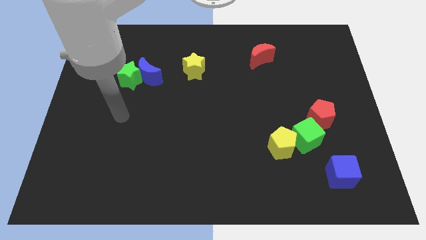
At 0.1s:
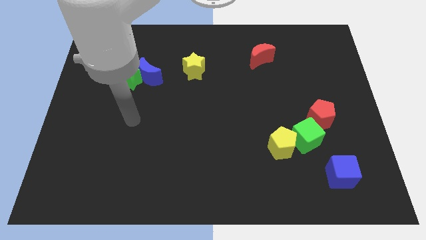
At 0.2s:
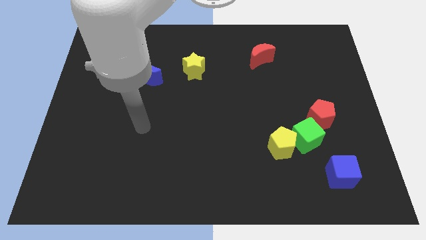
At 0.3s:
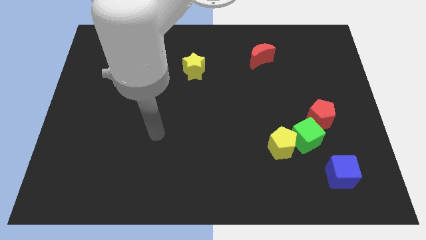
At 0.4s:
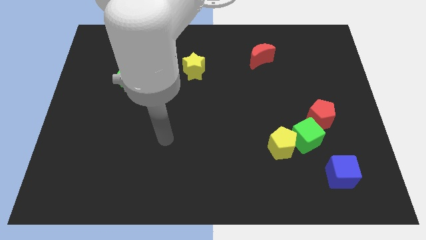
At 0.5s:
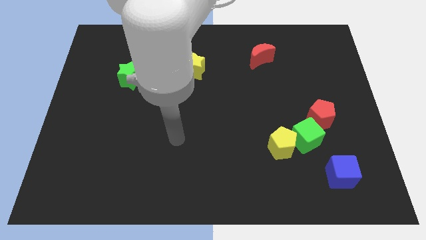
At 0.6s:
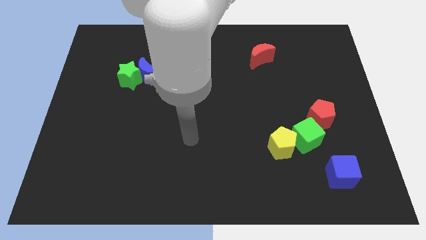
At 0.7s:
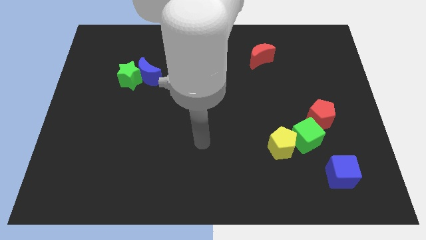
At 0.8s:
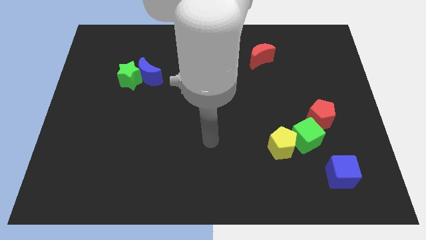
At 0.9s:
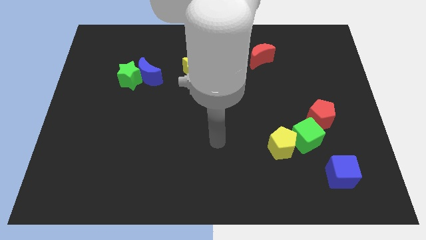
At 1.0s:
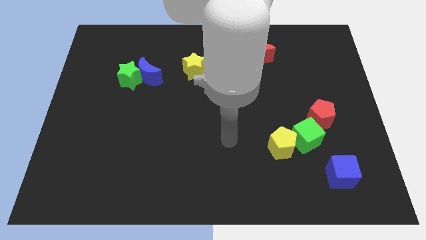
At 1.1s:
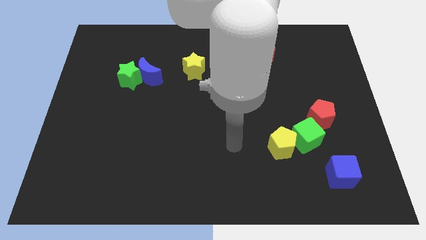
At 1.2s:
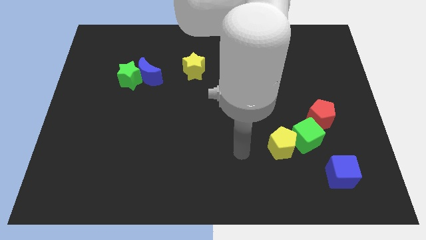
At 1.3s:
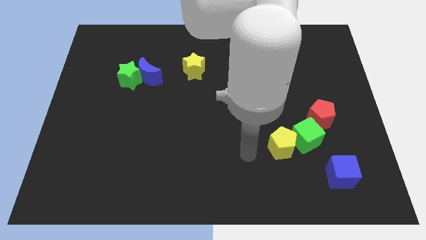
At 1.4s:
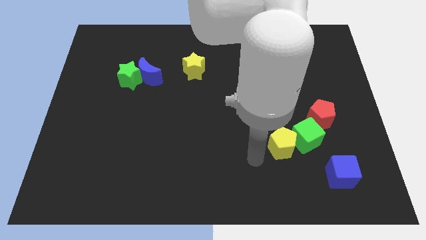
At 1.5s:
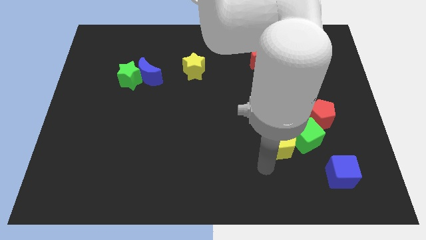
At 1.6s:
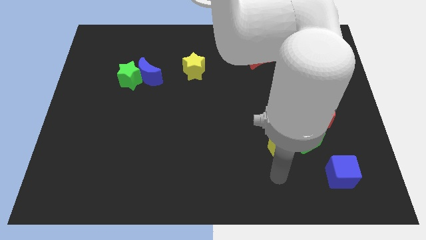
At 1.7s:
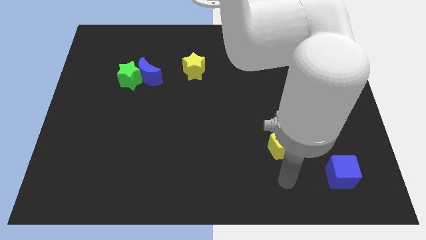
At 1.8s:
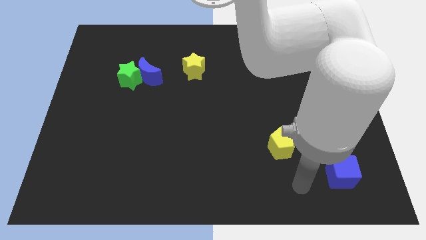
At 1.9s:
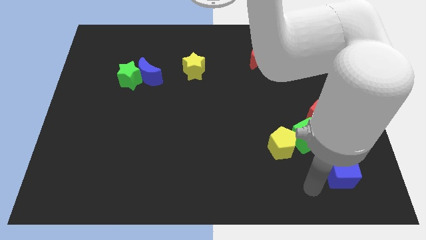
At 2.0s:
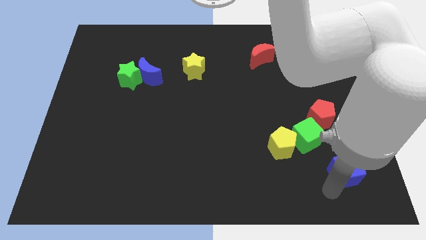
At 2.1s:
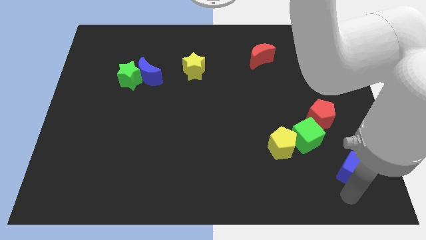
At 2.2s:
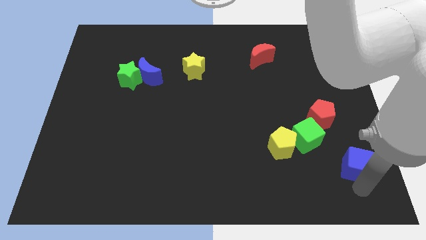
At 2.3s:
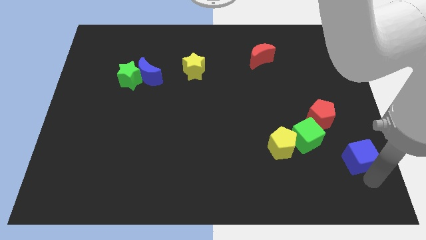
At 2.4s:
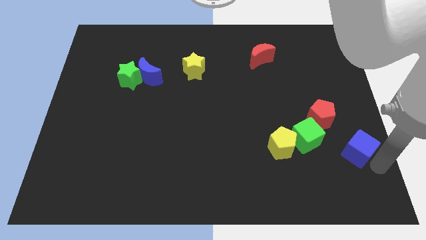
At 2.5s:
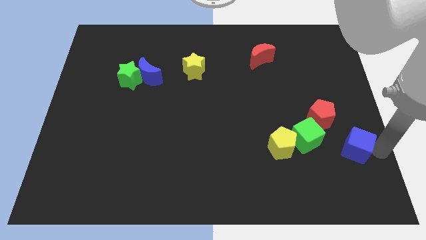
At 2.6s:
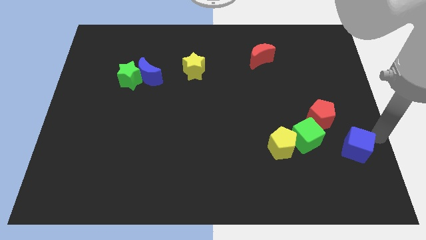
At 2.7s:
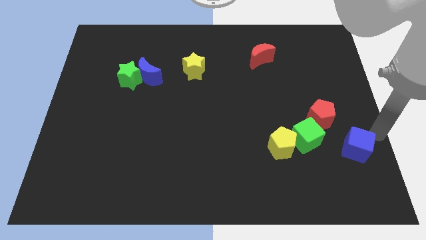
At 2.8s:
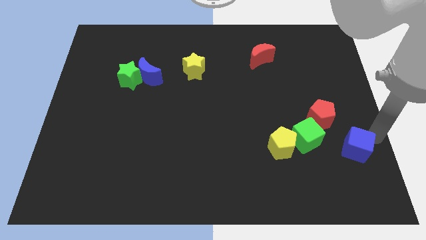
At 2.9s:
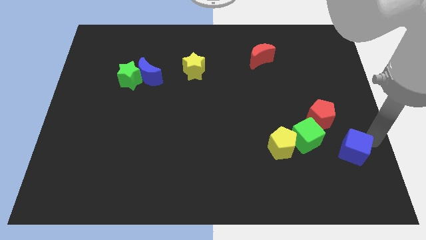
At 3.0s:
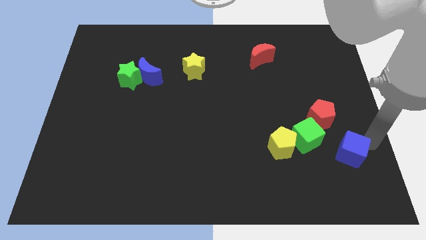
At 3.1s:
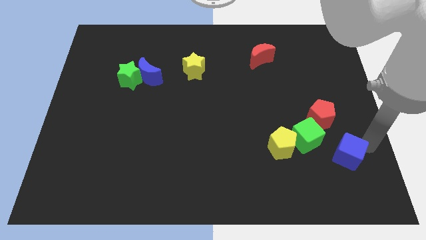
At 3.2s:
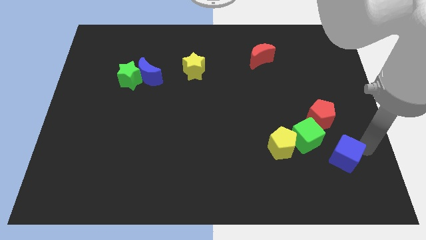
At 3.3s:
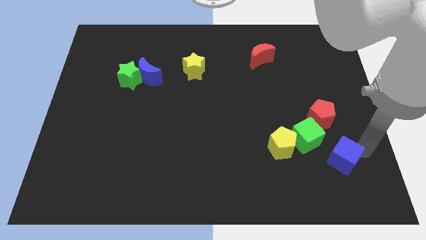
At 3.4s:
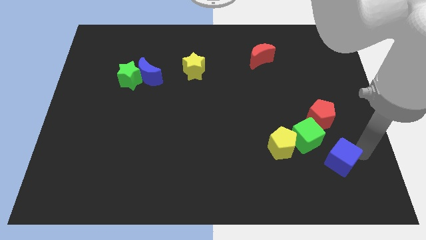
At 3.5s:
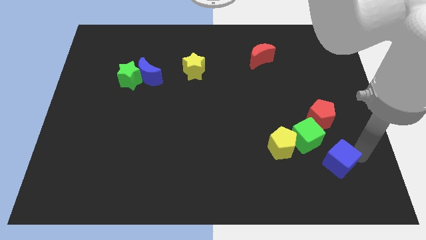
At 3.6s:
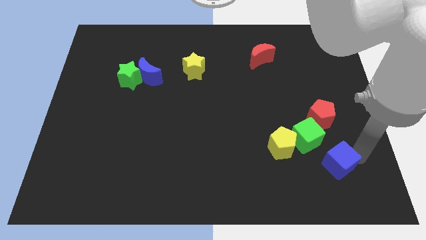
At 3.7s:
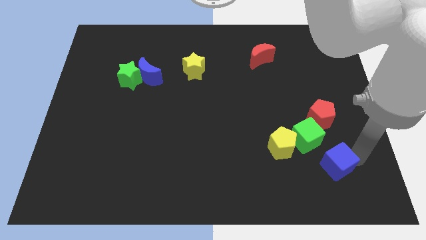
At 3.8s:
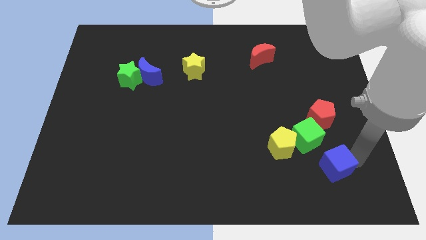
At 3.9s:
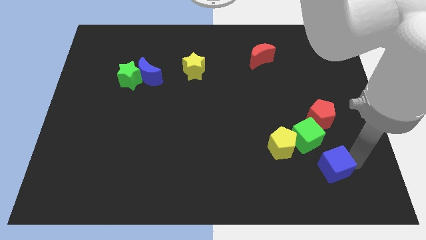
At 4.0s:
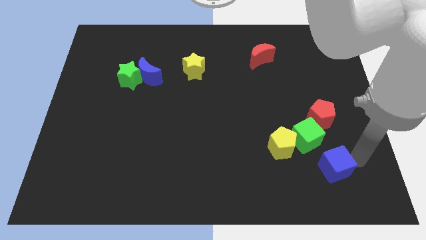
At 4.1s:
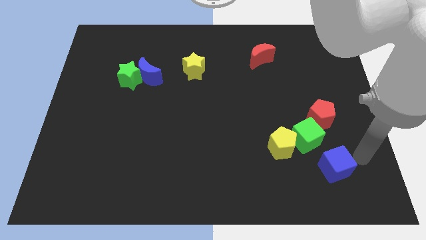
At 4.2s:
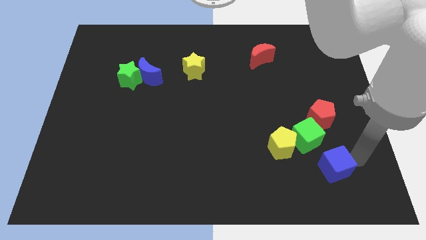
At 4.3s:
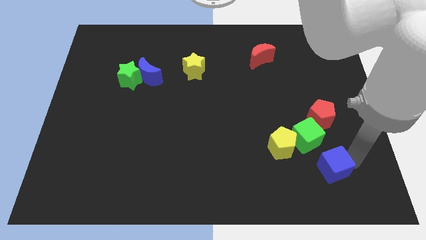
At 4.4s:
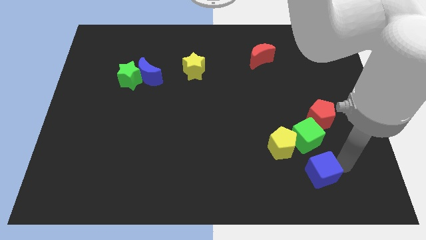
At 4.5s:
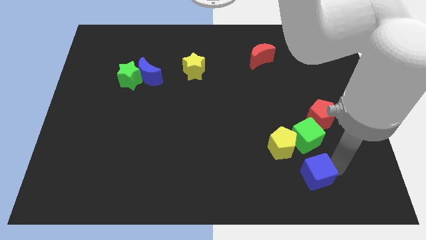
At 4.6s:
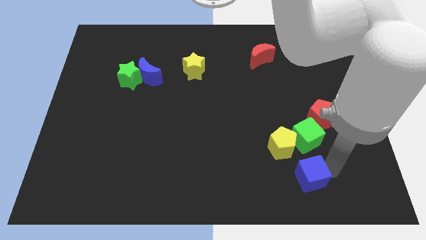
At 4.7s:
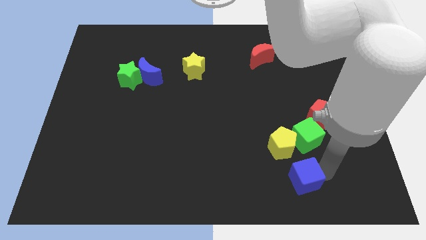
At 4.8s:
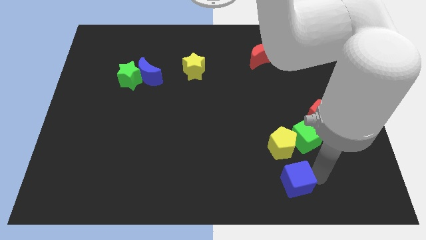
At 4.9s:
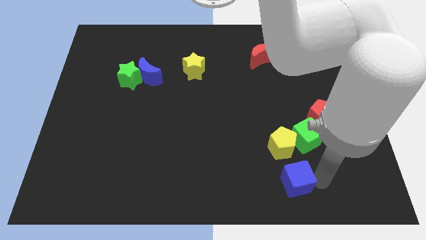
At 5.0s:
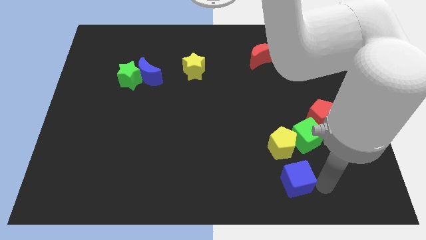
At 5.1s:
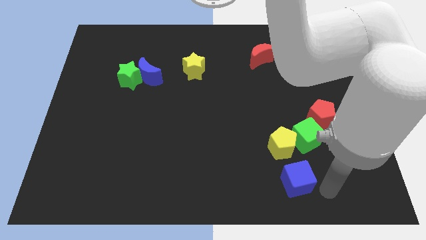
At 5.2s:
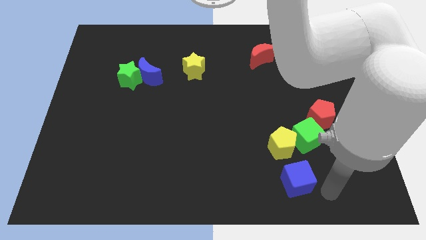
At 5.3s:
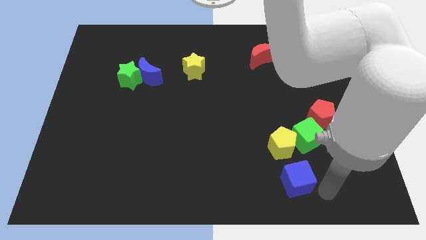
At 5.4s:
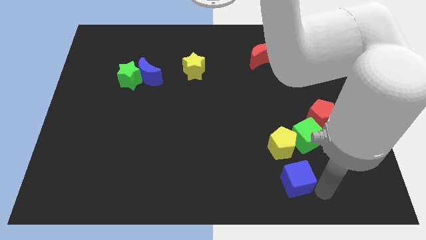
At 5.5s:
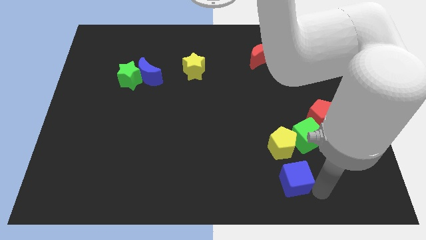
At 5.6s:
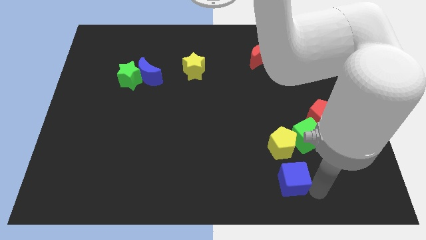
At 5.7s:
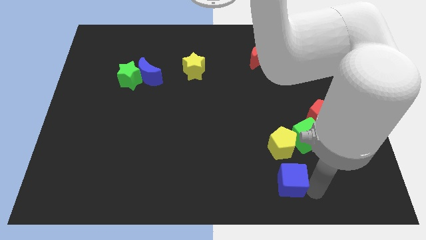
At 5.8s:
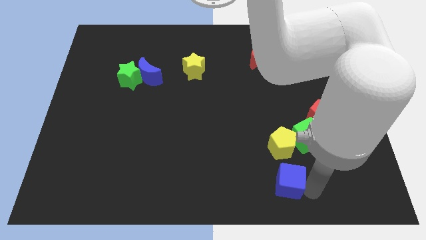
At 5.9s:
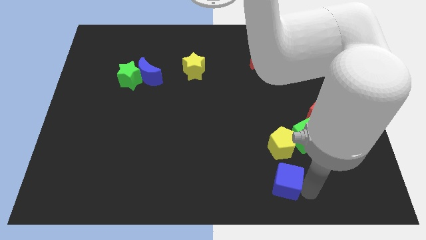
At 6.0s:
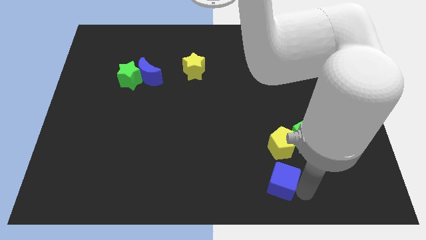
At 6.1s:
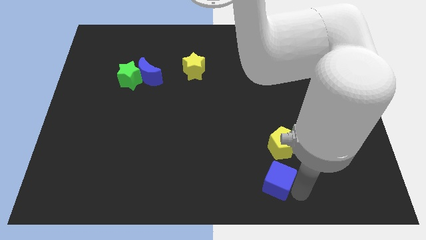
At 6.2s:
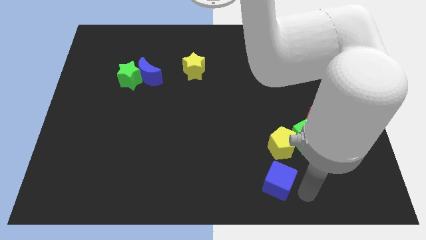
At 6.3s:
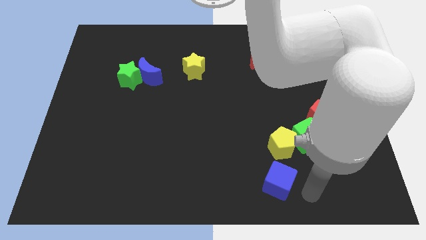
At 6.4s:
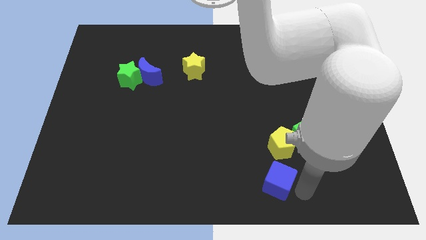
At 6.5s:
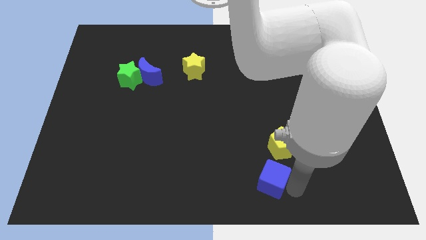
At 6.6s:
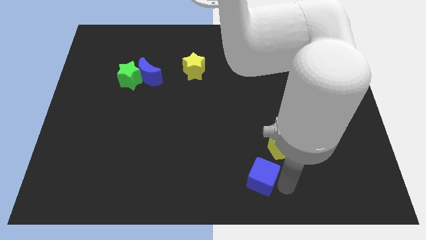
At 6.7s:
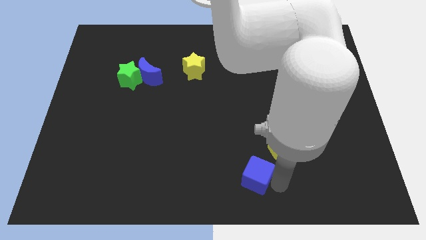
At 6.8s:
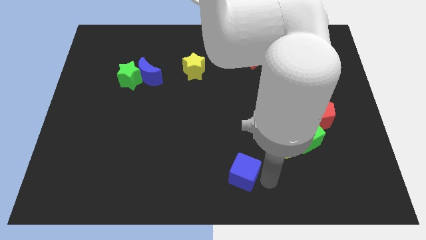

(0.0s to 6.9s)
move the blue cube to the left

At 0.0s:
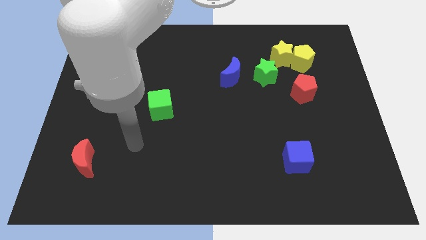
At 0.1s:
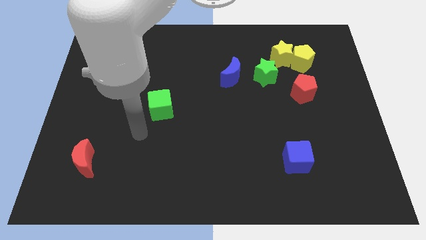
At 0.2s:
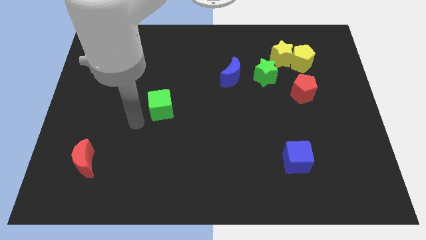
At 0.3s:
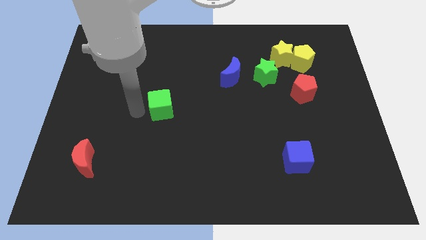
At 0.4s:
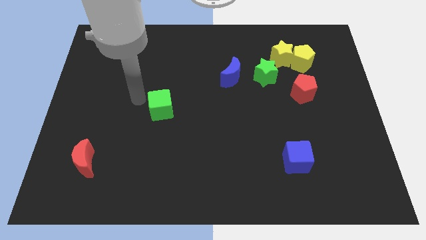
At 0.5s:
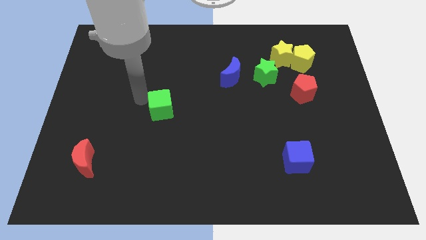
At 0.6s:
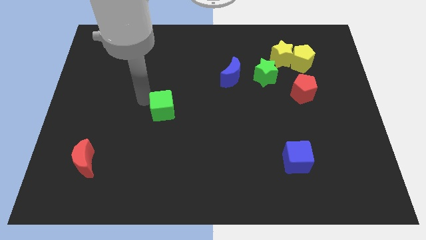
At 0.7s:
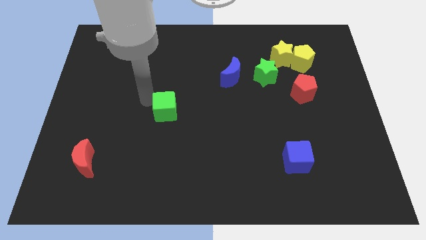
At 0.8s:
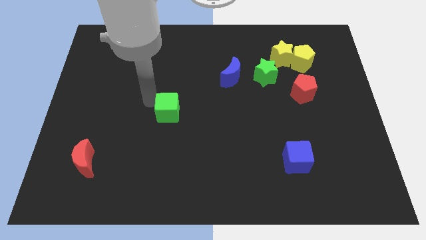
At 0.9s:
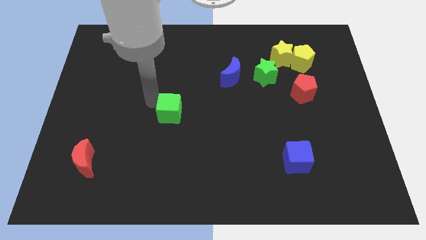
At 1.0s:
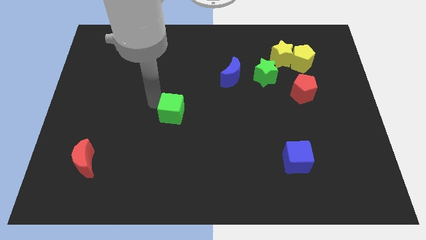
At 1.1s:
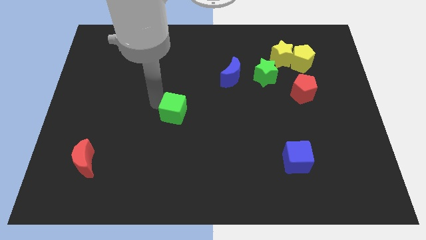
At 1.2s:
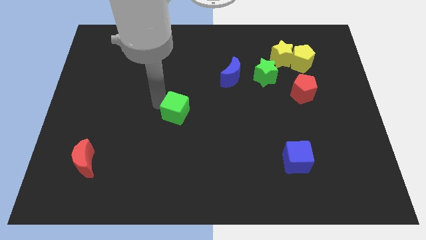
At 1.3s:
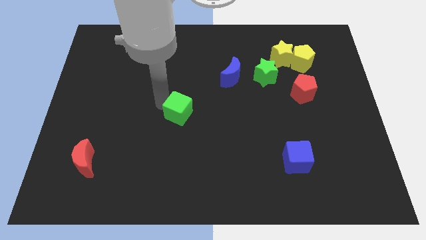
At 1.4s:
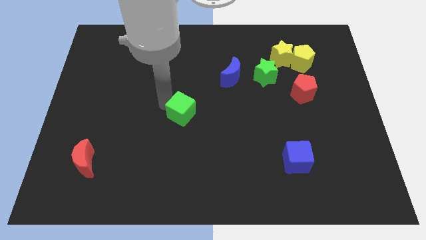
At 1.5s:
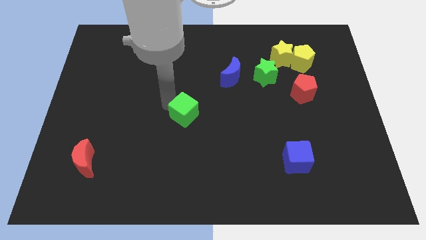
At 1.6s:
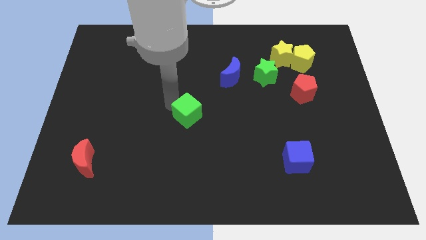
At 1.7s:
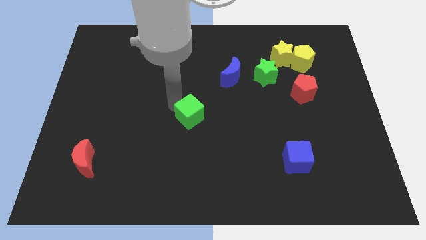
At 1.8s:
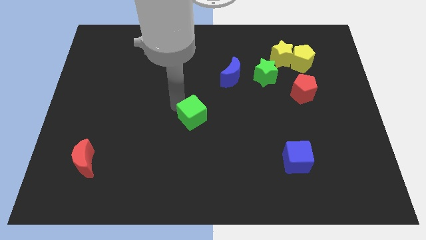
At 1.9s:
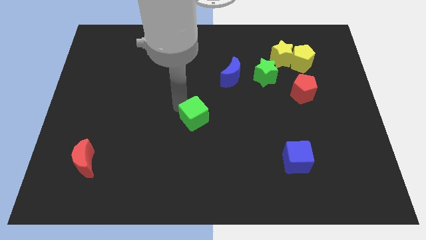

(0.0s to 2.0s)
slightly move the green cube downwards and right
